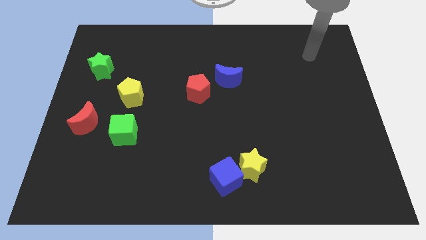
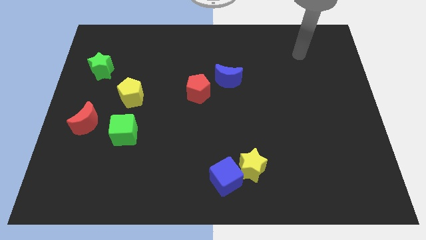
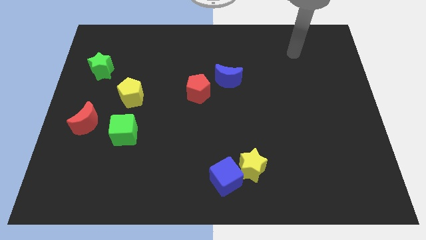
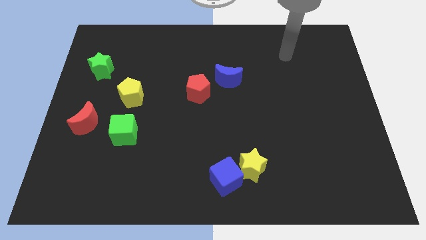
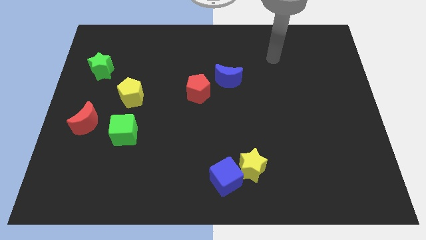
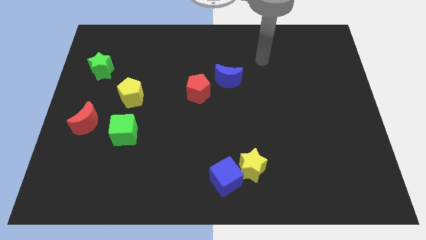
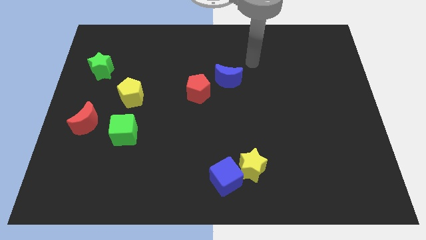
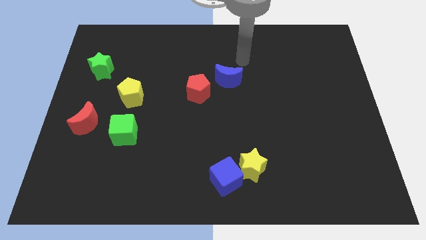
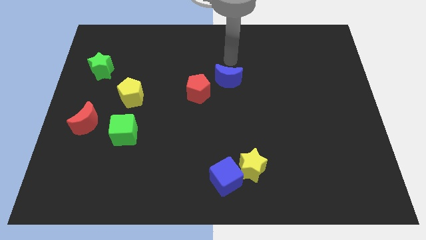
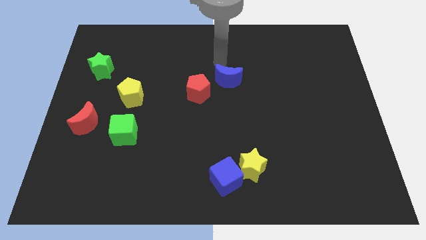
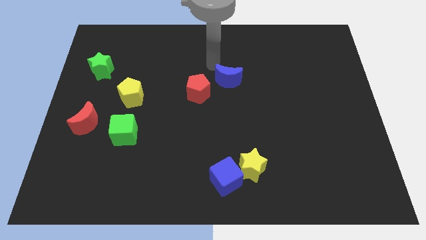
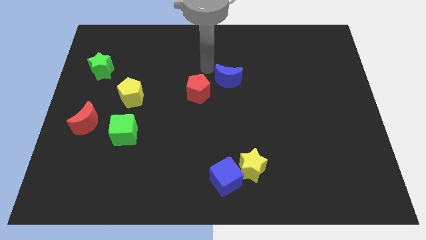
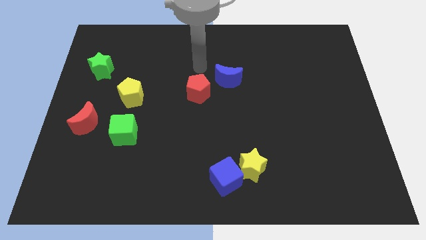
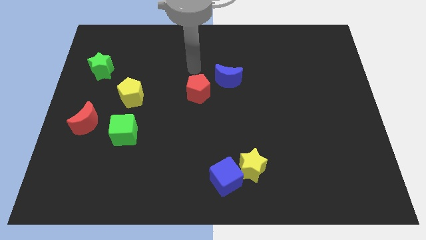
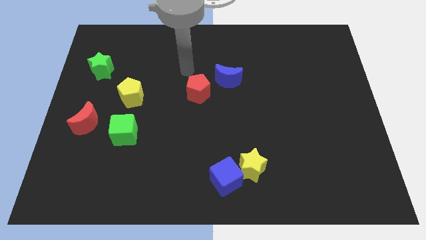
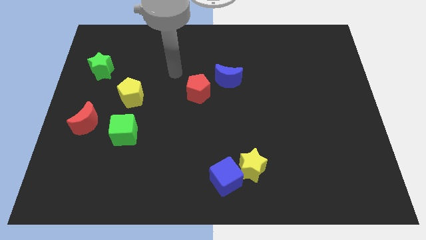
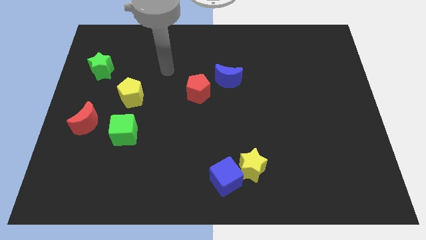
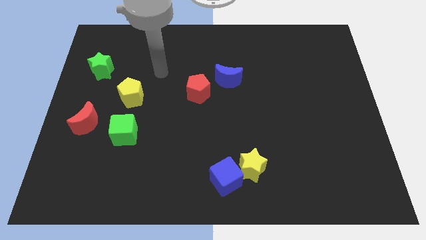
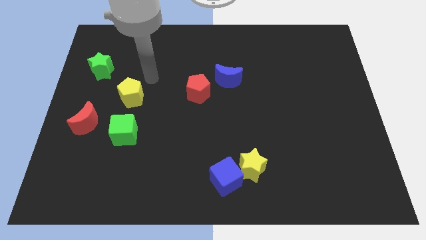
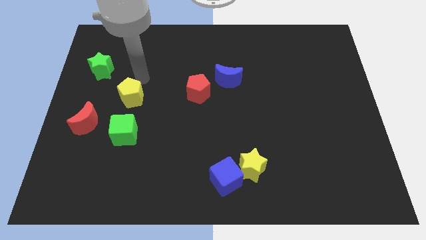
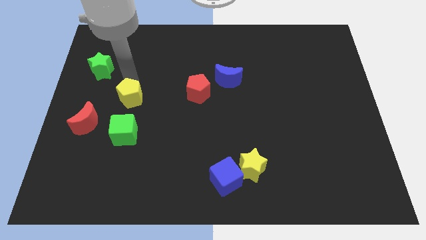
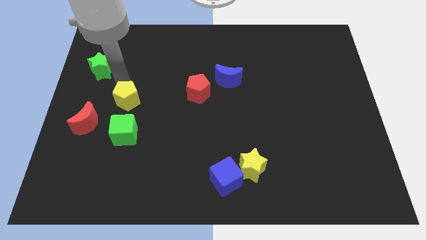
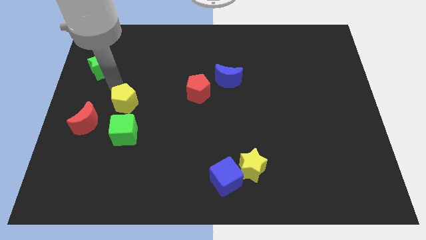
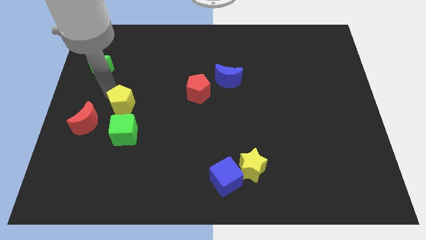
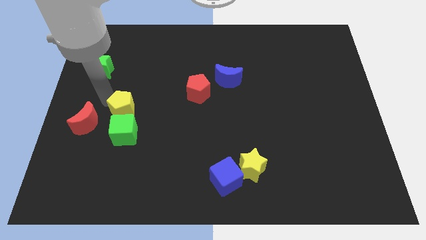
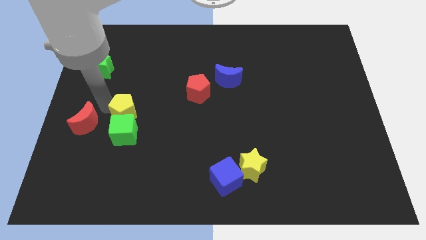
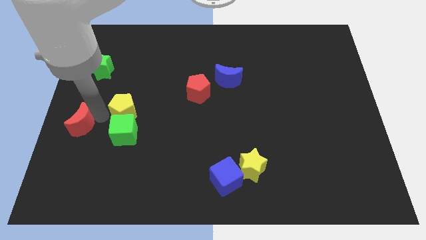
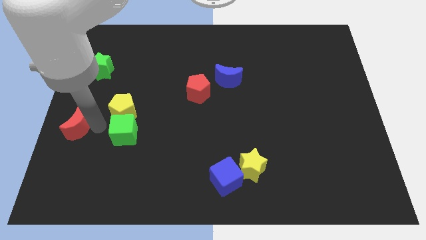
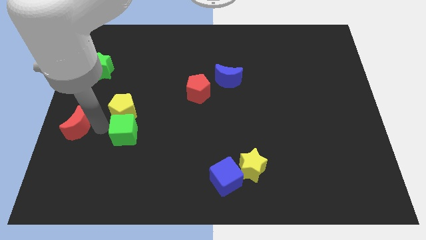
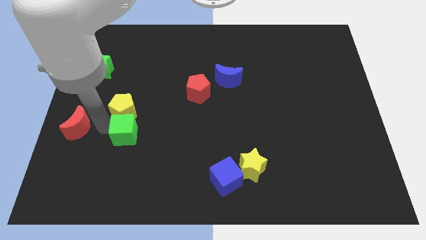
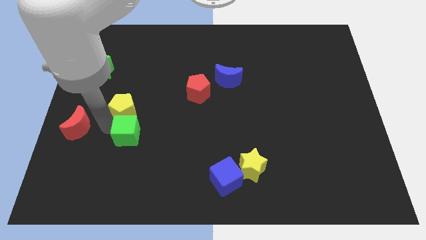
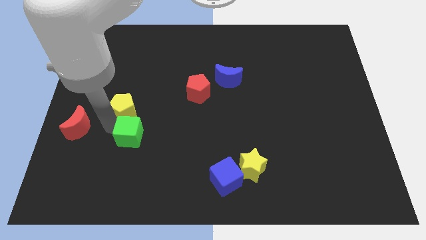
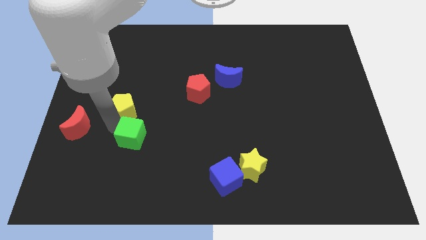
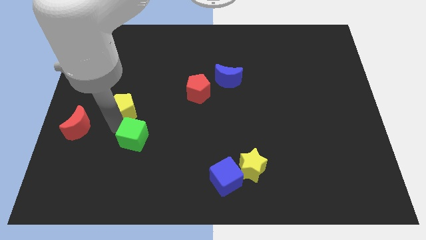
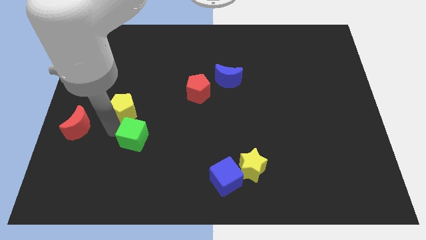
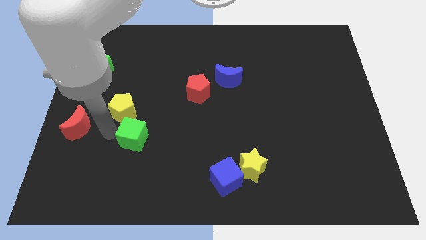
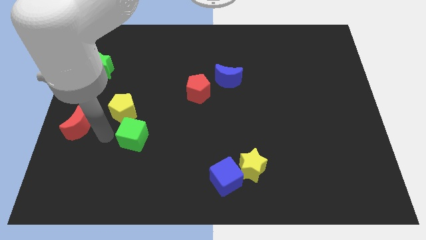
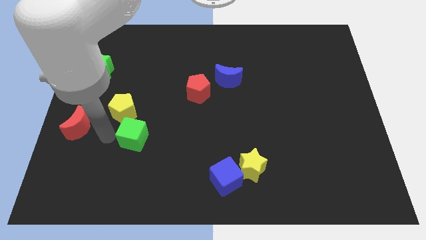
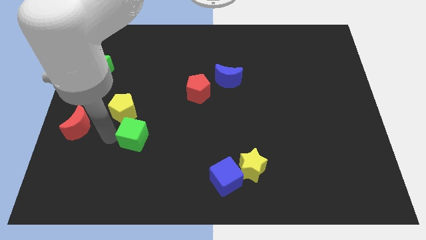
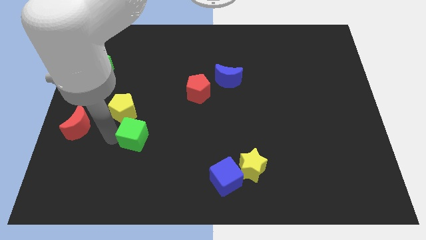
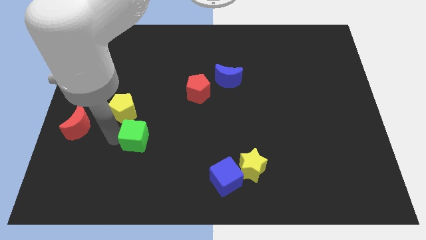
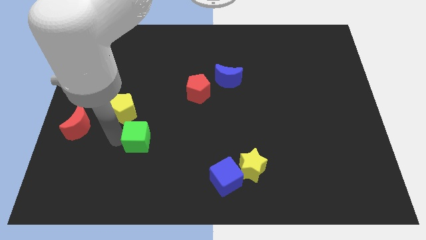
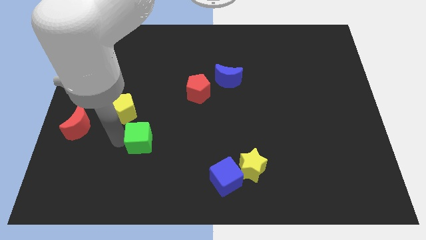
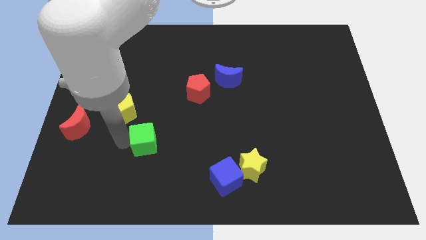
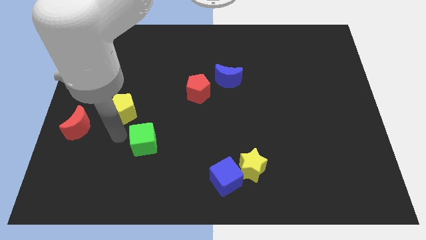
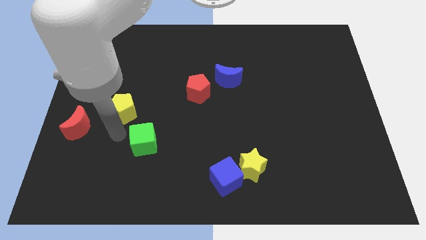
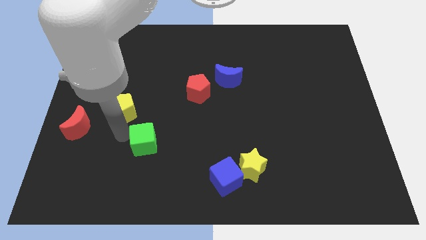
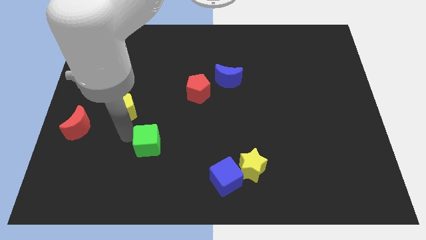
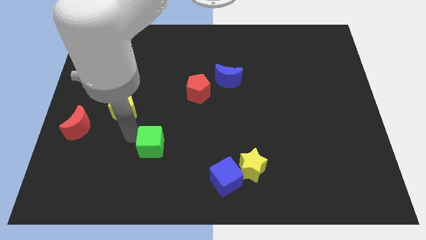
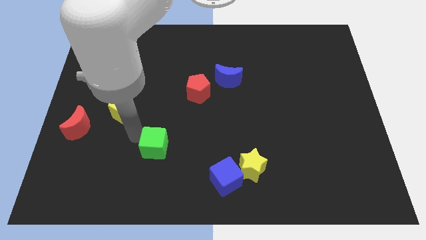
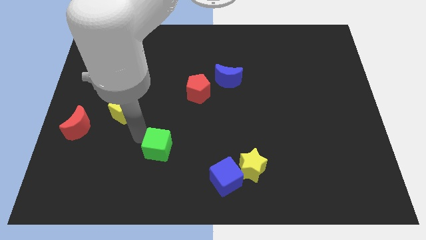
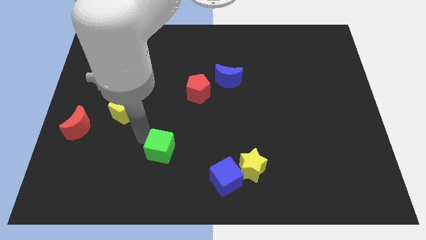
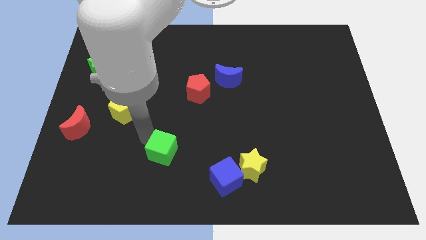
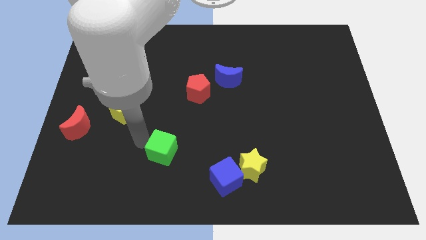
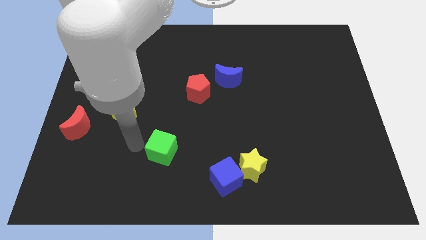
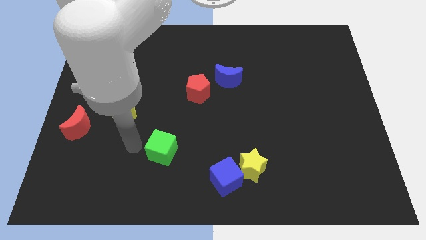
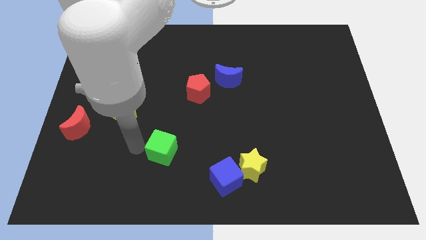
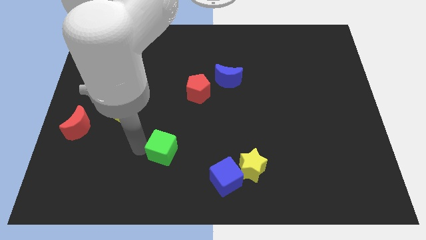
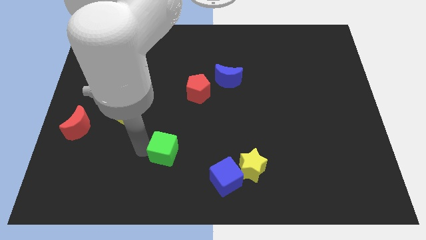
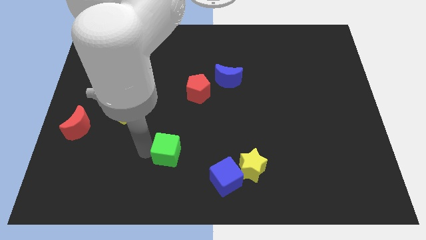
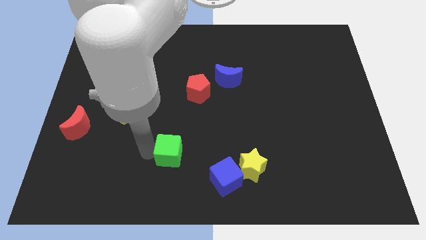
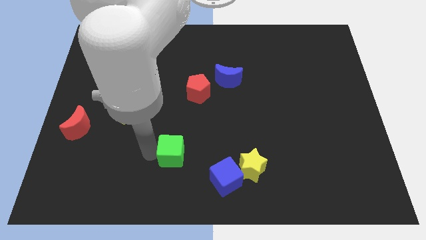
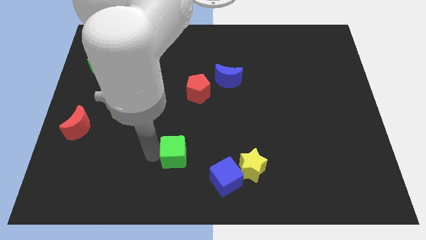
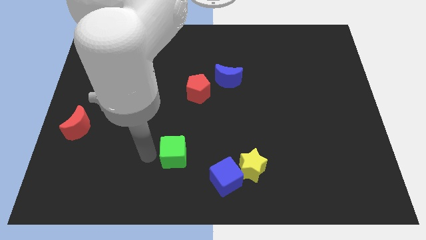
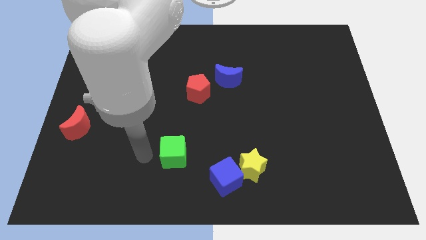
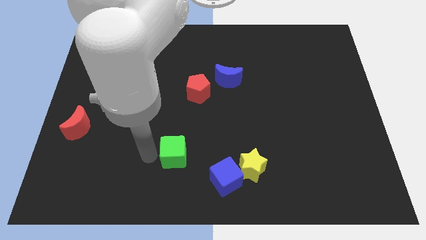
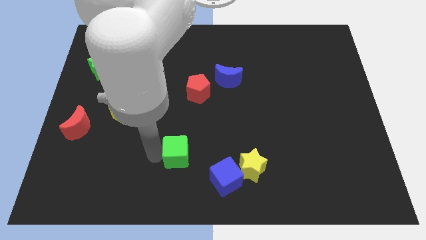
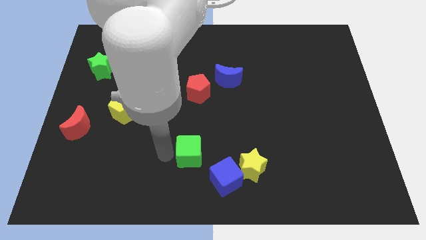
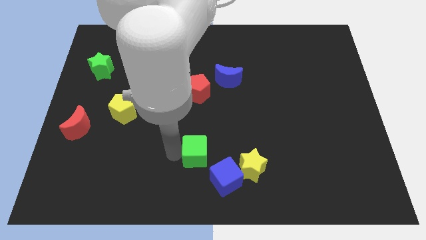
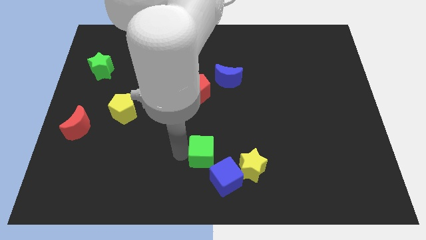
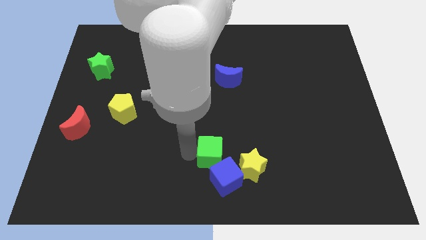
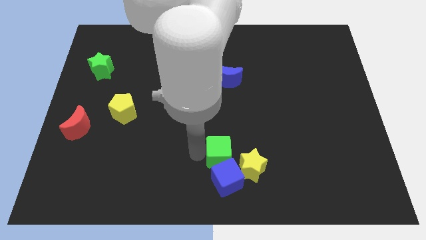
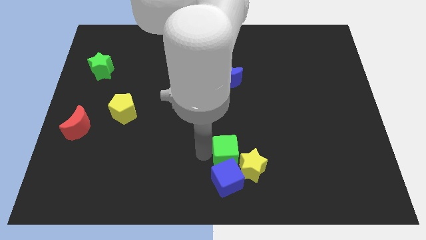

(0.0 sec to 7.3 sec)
move the green cube next to the yellow star
